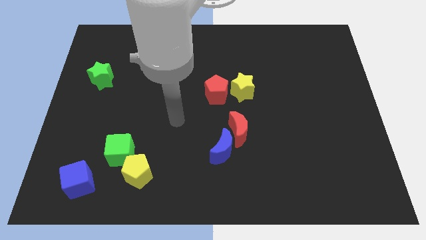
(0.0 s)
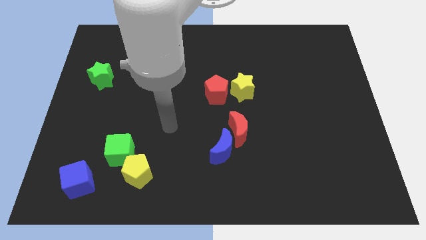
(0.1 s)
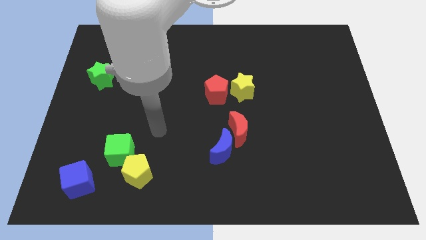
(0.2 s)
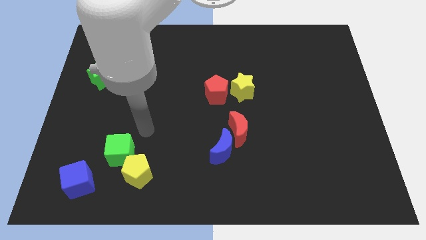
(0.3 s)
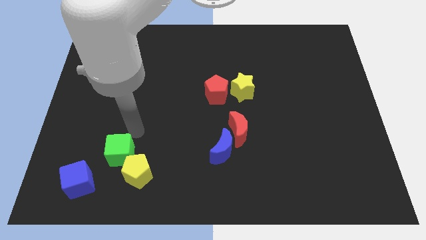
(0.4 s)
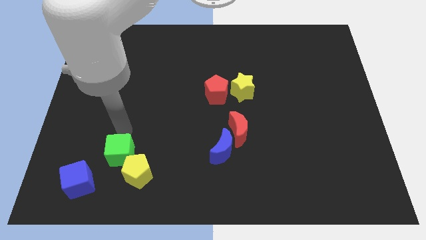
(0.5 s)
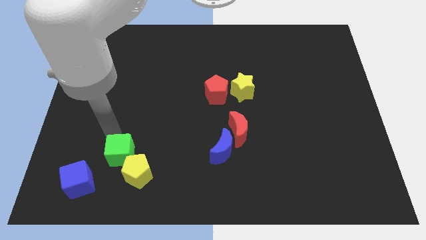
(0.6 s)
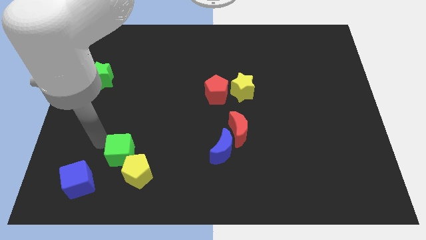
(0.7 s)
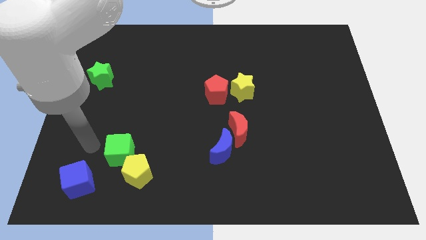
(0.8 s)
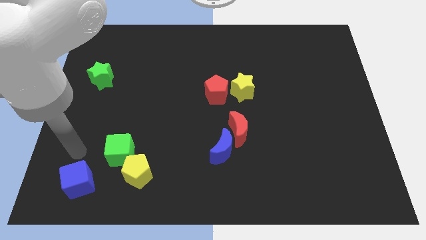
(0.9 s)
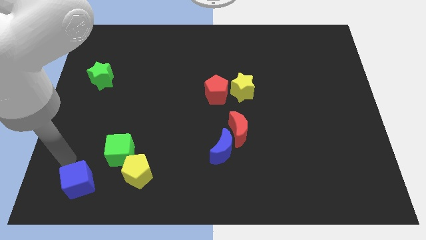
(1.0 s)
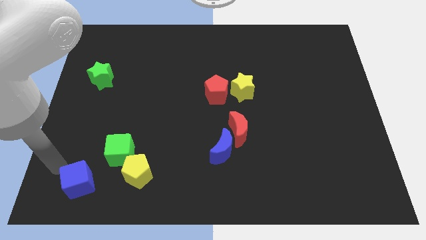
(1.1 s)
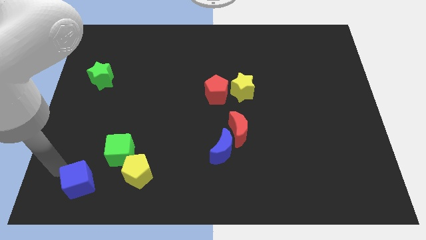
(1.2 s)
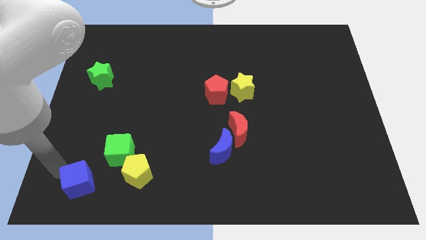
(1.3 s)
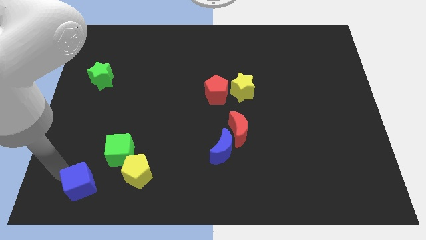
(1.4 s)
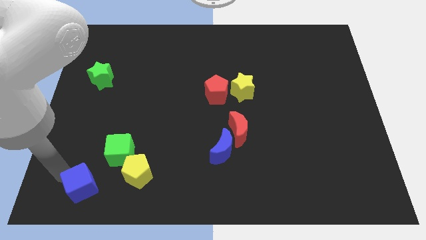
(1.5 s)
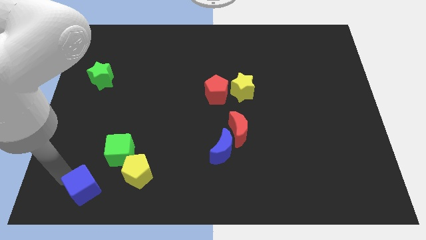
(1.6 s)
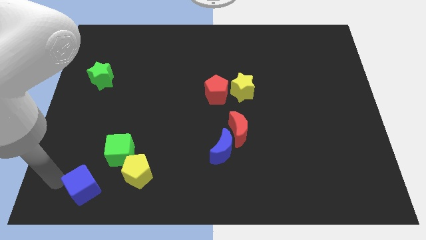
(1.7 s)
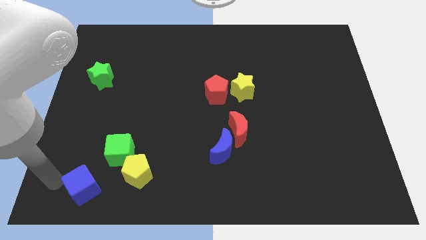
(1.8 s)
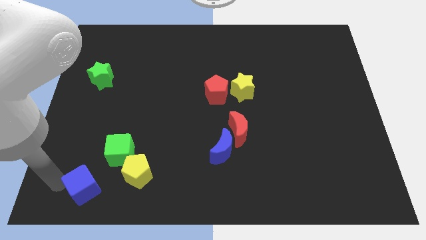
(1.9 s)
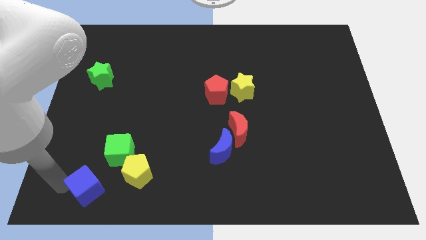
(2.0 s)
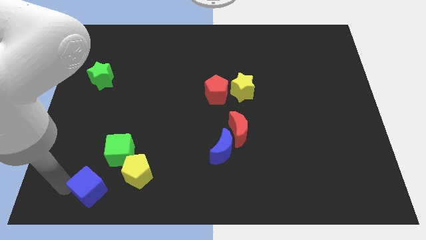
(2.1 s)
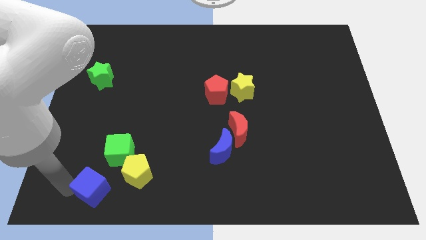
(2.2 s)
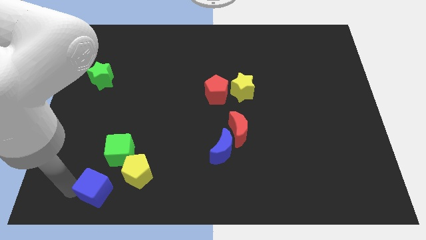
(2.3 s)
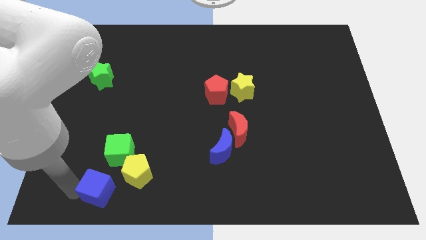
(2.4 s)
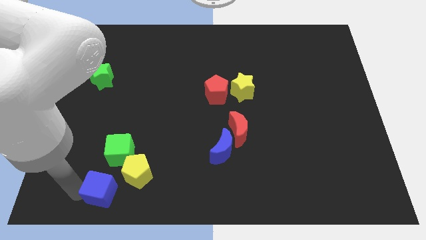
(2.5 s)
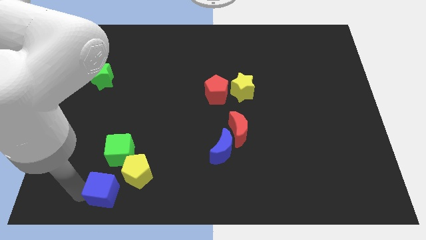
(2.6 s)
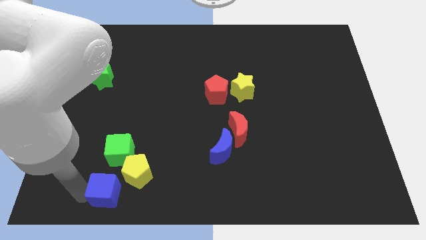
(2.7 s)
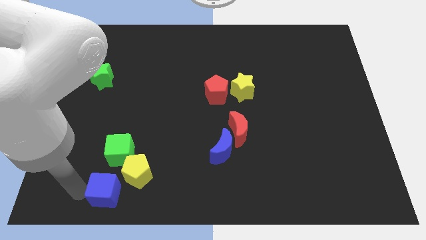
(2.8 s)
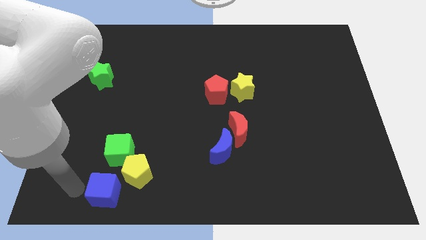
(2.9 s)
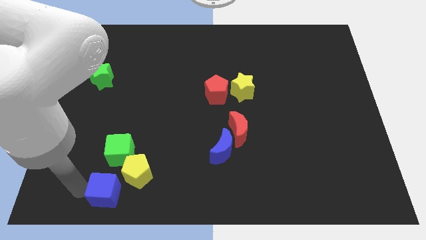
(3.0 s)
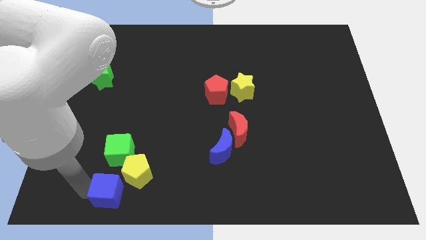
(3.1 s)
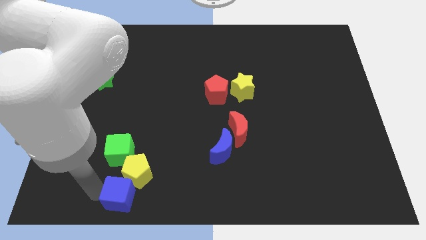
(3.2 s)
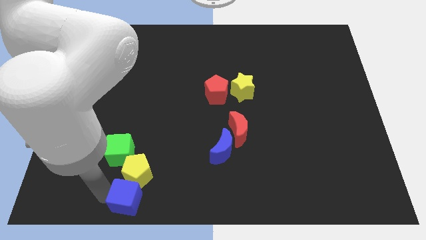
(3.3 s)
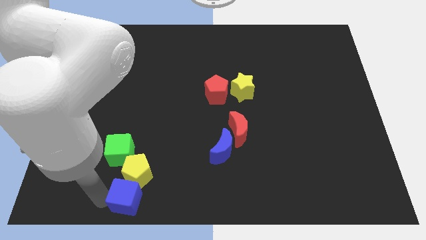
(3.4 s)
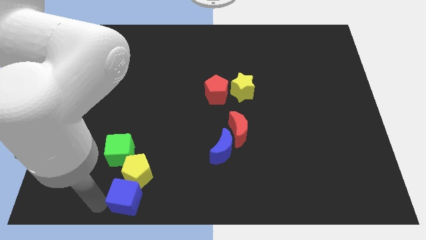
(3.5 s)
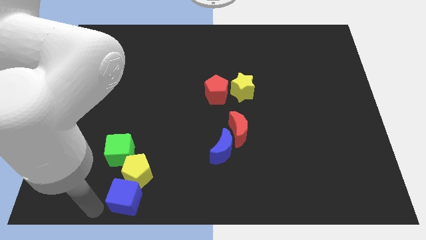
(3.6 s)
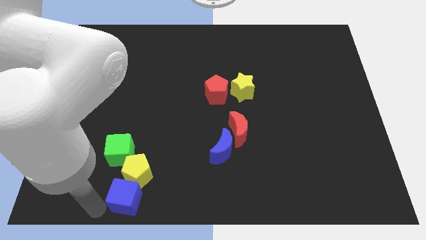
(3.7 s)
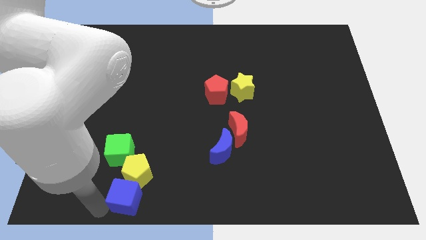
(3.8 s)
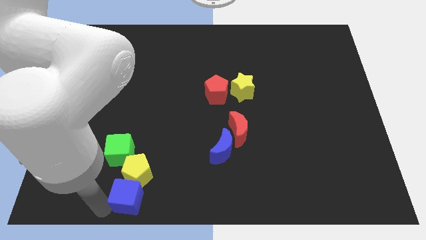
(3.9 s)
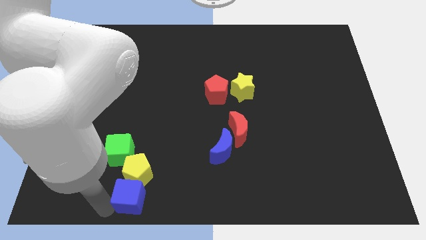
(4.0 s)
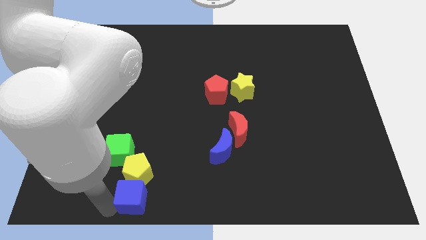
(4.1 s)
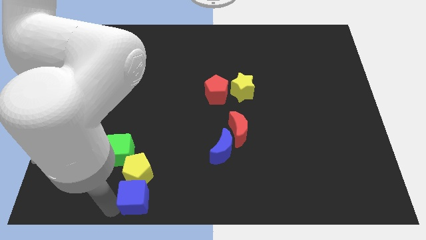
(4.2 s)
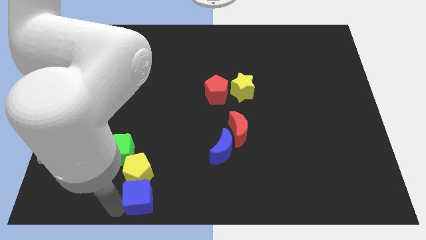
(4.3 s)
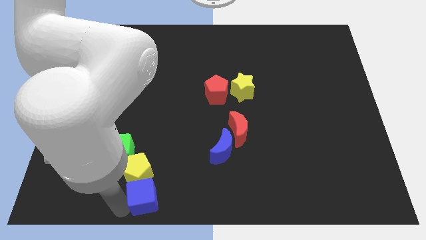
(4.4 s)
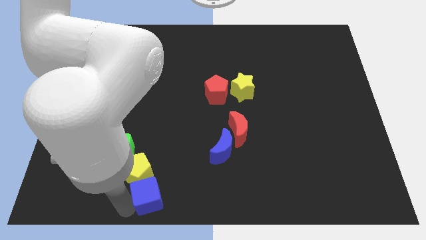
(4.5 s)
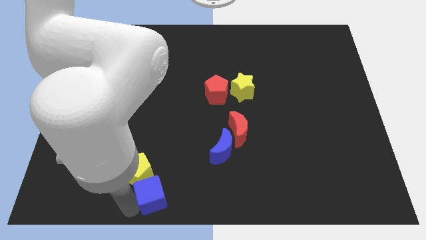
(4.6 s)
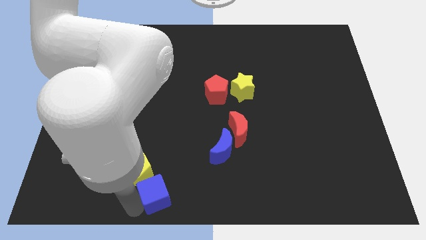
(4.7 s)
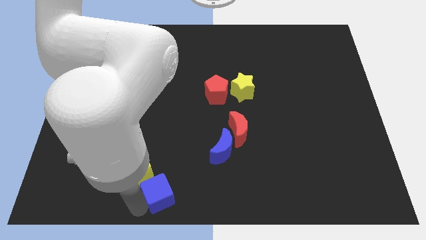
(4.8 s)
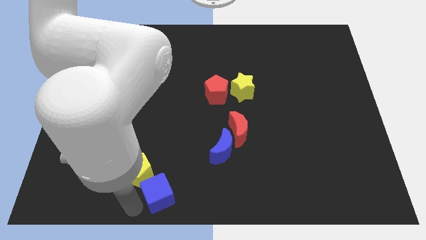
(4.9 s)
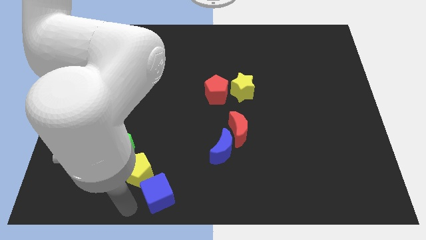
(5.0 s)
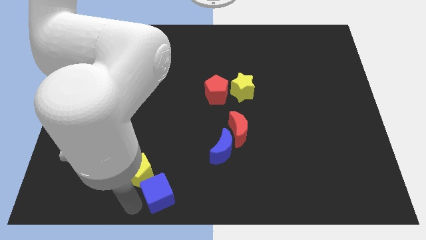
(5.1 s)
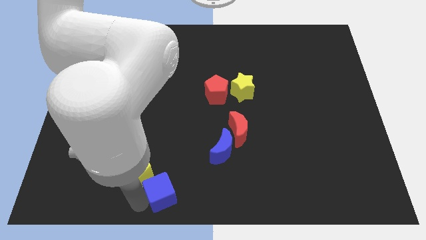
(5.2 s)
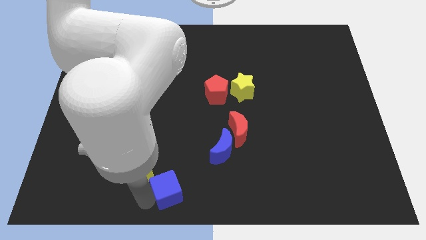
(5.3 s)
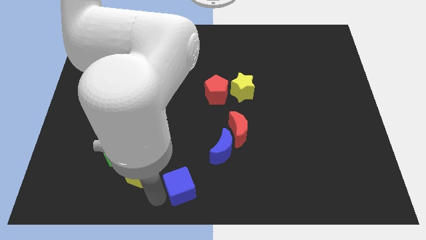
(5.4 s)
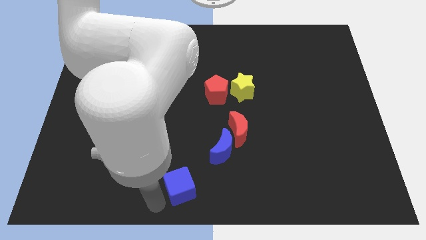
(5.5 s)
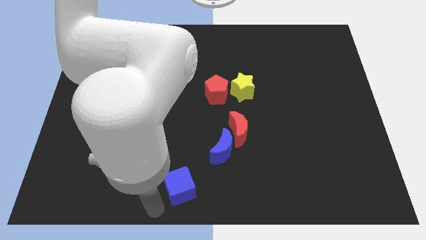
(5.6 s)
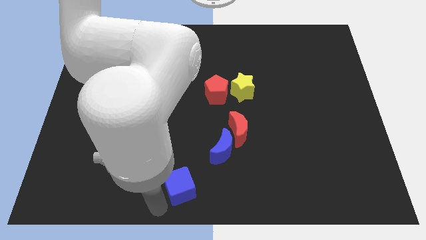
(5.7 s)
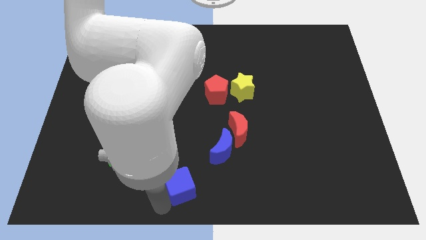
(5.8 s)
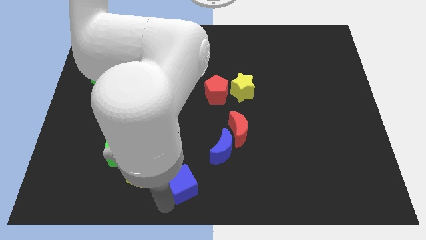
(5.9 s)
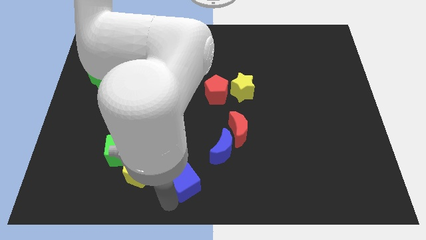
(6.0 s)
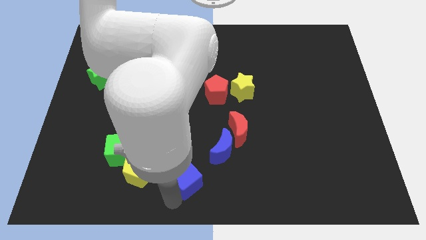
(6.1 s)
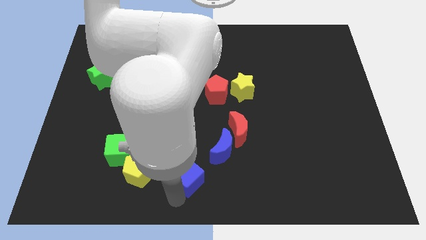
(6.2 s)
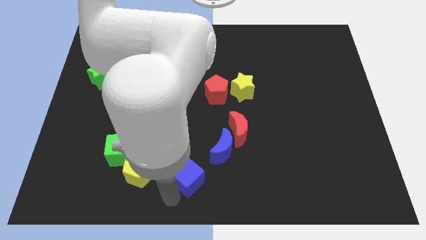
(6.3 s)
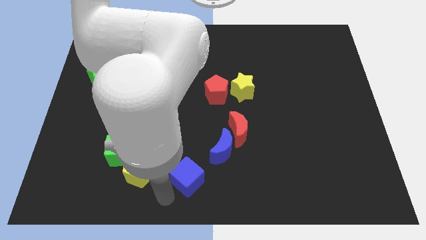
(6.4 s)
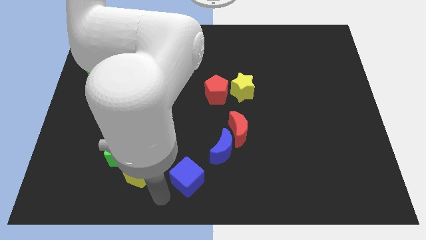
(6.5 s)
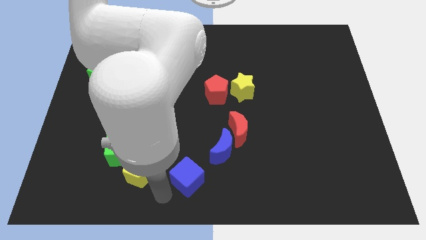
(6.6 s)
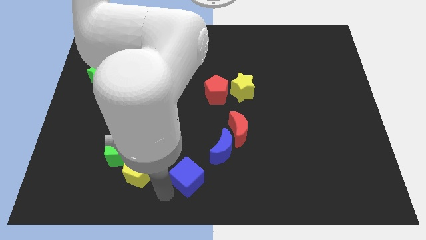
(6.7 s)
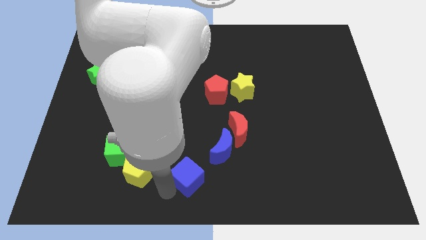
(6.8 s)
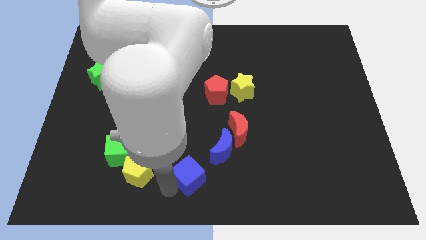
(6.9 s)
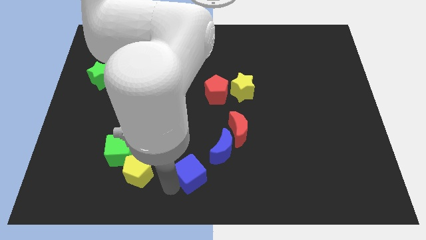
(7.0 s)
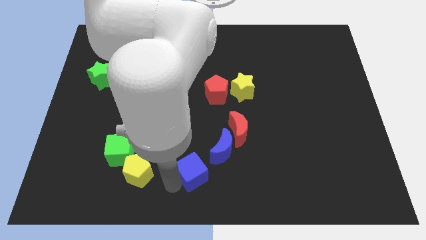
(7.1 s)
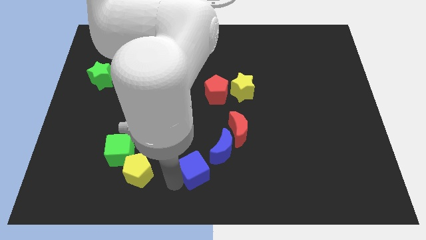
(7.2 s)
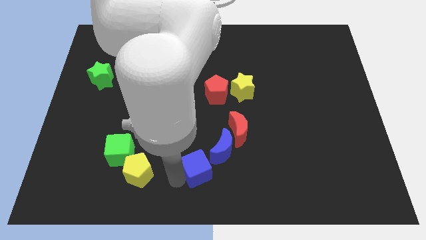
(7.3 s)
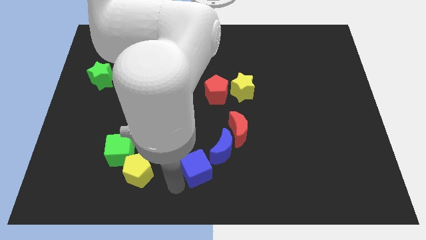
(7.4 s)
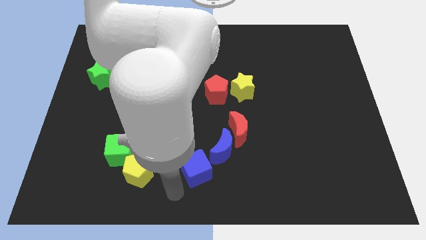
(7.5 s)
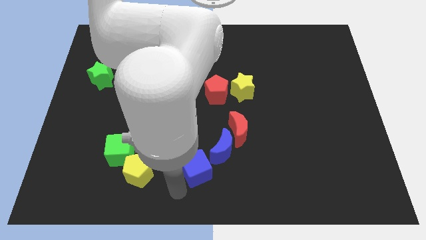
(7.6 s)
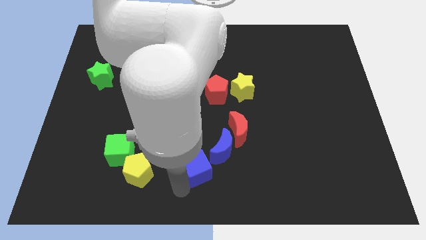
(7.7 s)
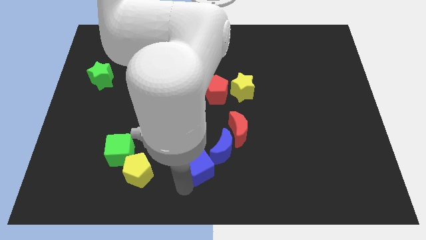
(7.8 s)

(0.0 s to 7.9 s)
push the blue cube diagonally down and to the left of the red moon

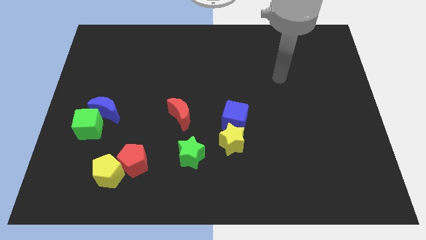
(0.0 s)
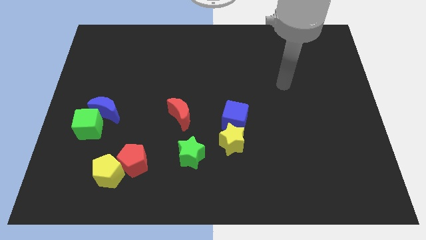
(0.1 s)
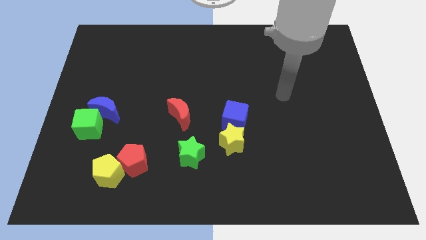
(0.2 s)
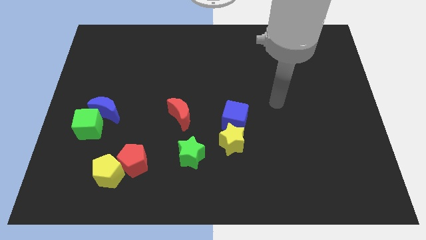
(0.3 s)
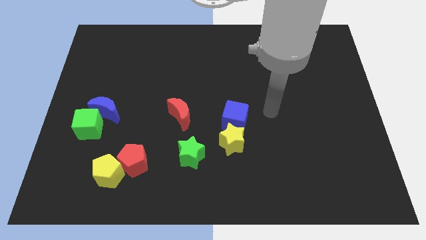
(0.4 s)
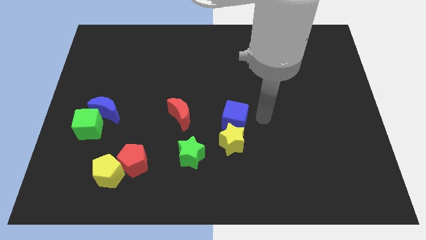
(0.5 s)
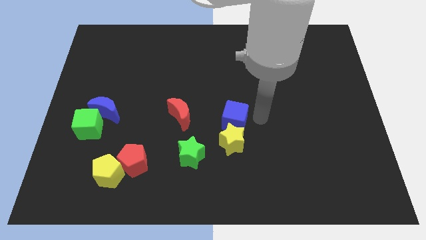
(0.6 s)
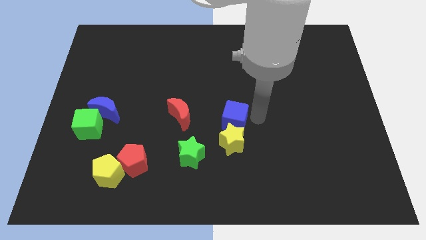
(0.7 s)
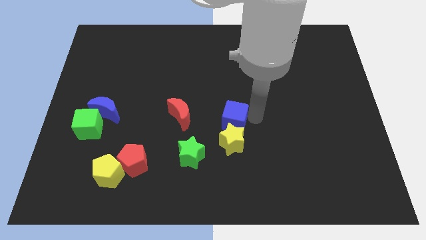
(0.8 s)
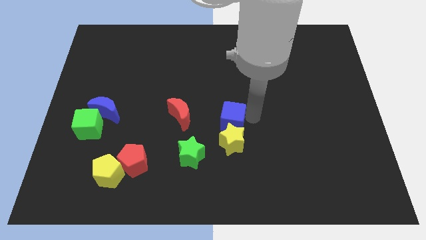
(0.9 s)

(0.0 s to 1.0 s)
put the blue cube to the top right of the green star
